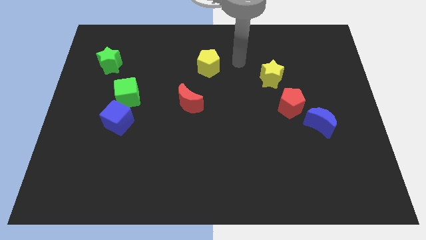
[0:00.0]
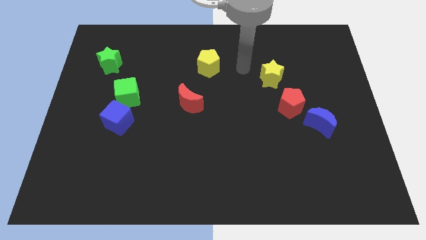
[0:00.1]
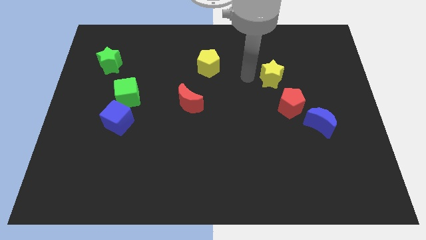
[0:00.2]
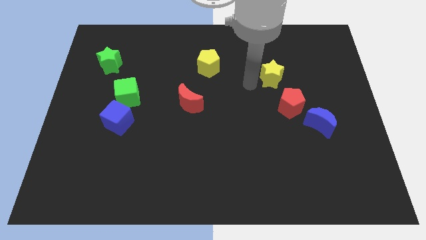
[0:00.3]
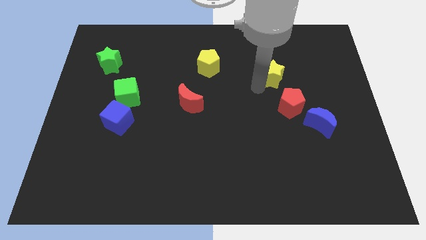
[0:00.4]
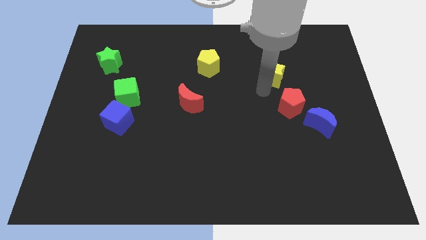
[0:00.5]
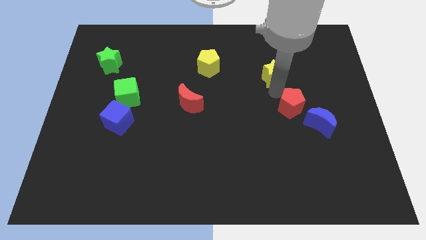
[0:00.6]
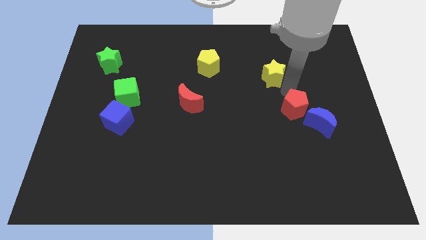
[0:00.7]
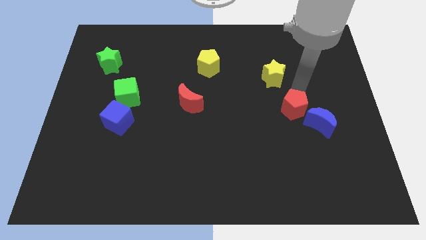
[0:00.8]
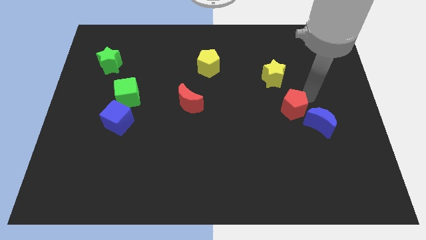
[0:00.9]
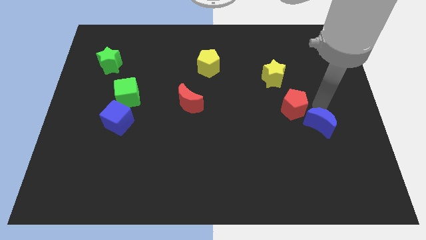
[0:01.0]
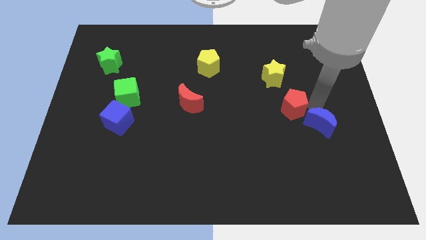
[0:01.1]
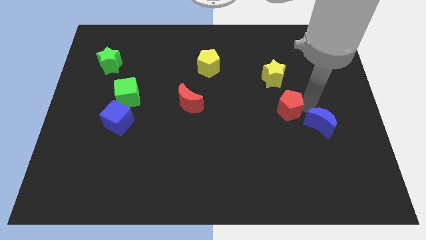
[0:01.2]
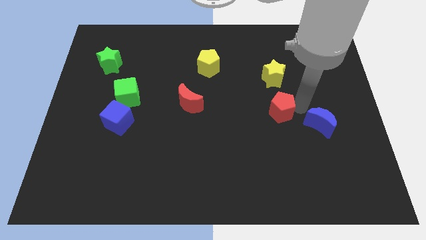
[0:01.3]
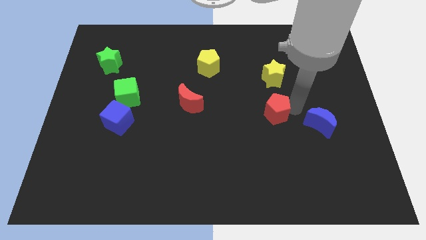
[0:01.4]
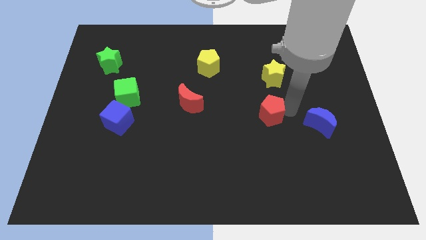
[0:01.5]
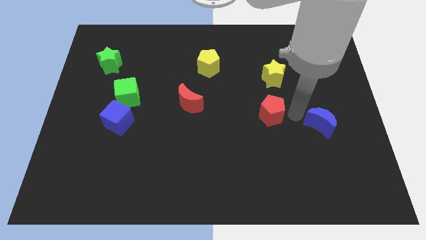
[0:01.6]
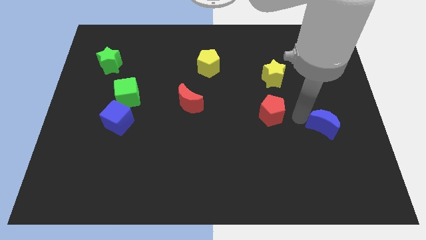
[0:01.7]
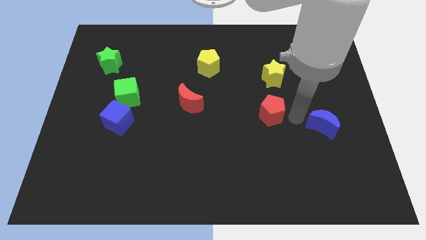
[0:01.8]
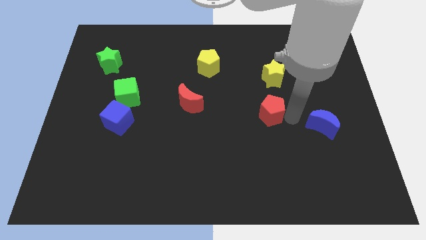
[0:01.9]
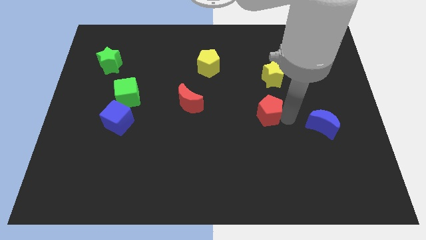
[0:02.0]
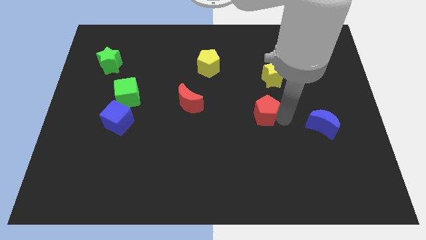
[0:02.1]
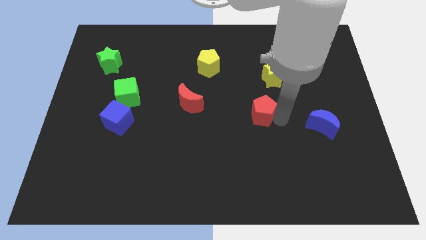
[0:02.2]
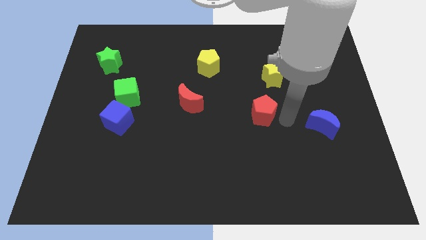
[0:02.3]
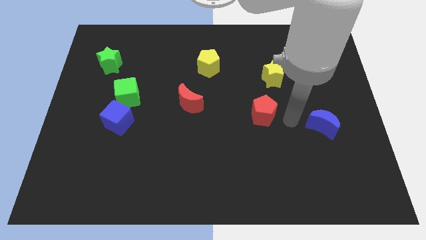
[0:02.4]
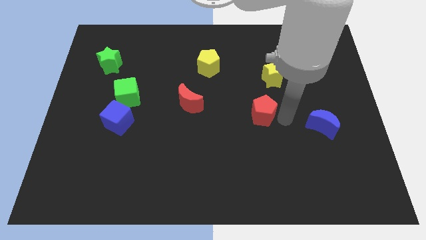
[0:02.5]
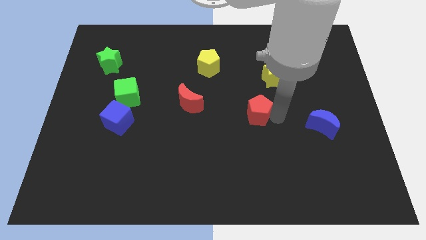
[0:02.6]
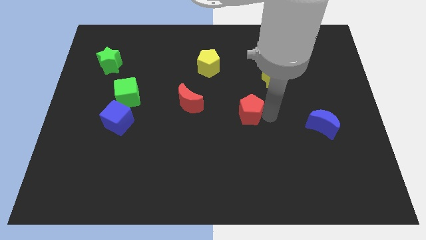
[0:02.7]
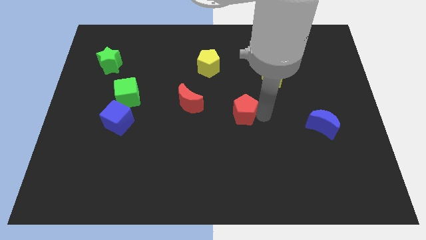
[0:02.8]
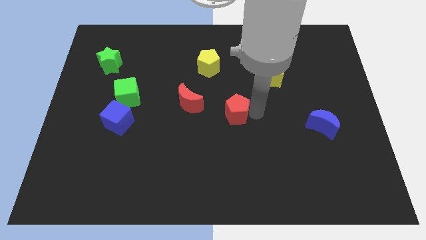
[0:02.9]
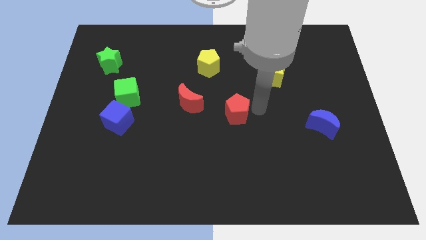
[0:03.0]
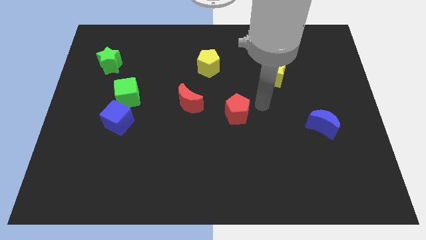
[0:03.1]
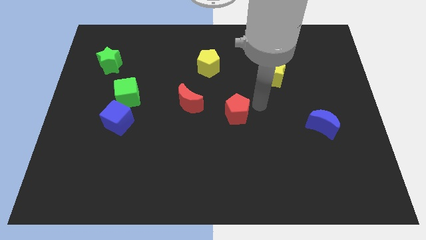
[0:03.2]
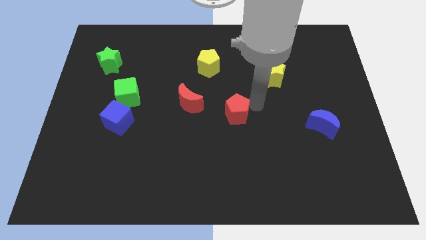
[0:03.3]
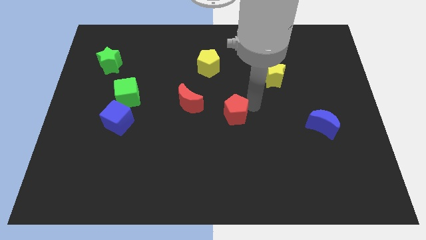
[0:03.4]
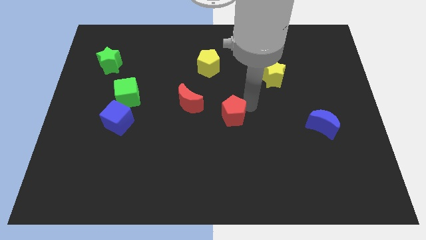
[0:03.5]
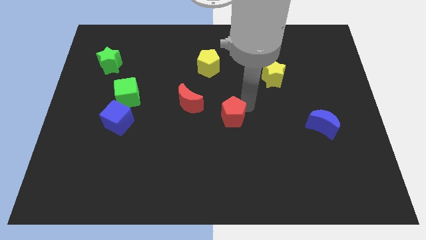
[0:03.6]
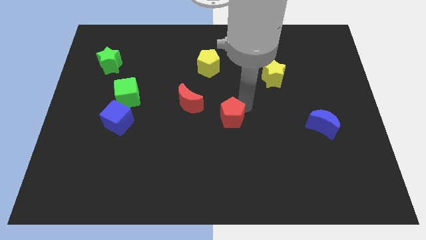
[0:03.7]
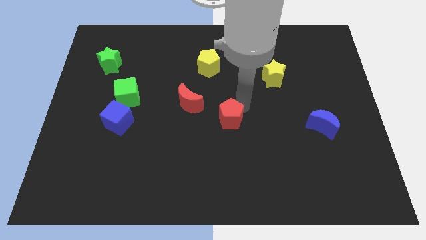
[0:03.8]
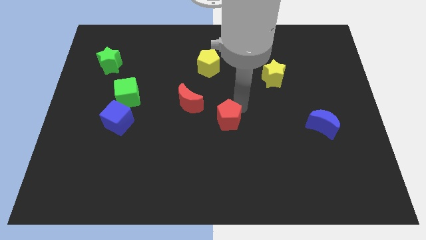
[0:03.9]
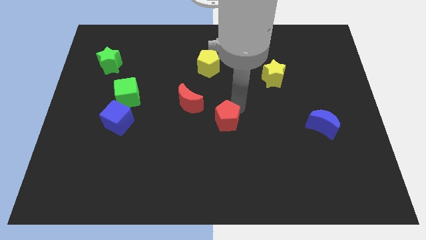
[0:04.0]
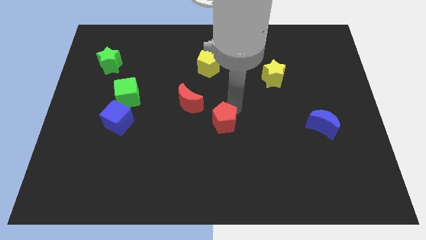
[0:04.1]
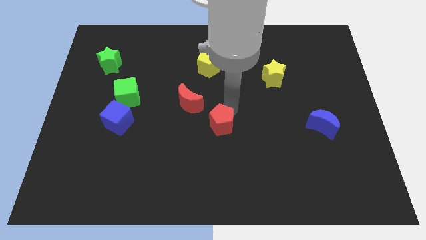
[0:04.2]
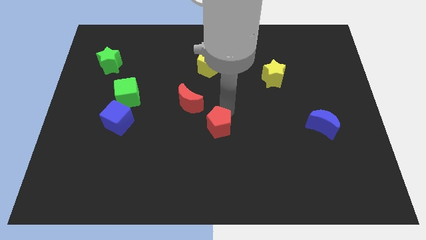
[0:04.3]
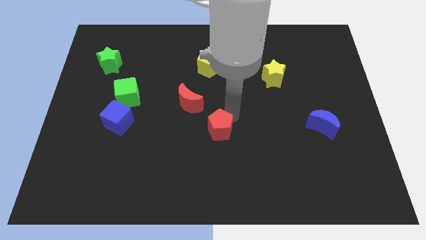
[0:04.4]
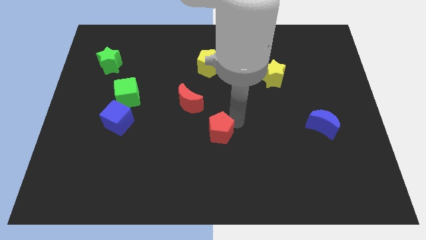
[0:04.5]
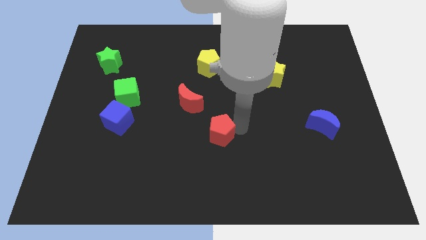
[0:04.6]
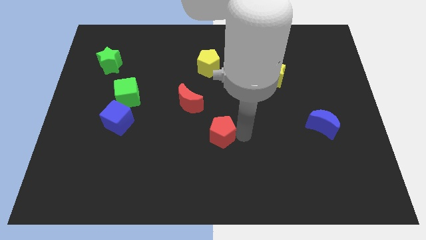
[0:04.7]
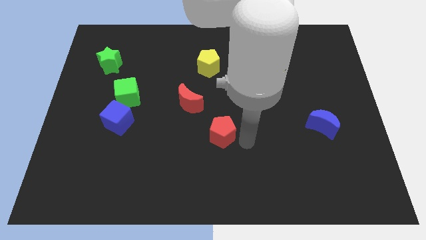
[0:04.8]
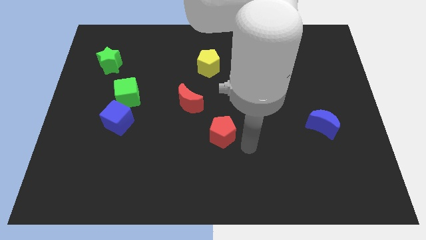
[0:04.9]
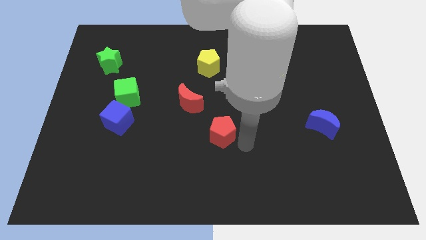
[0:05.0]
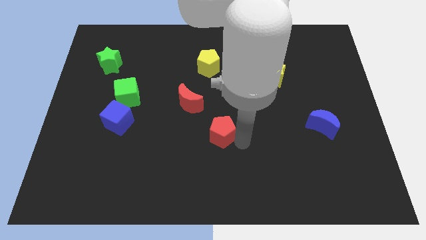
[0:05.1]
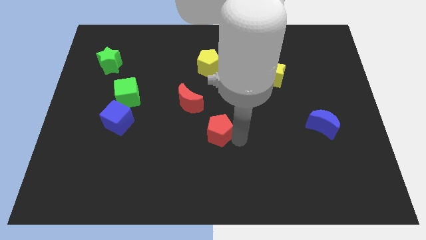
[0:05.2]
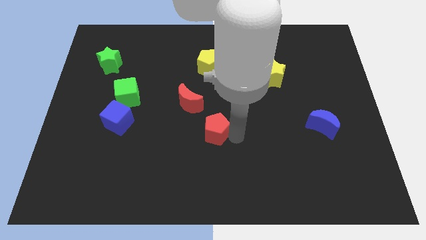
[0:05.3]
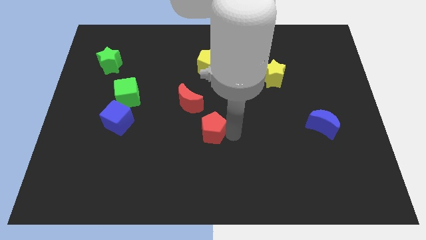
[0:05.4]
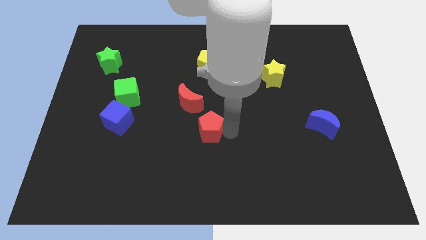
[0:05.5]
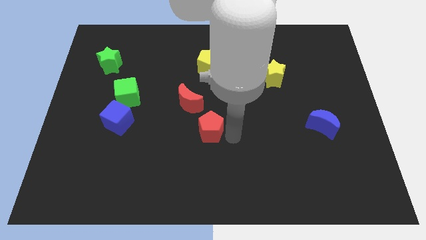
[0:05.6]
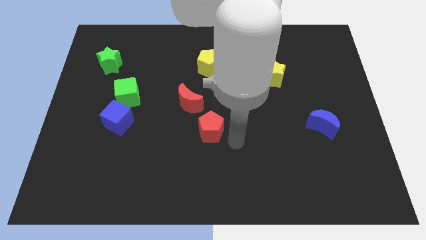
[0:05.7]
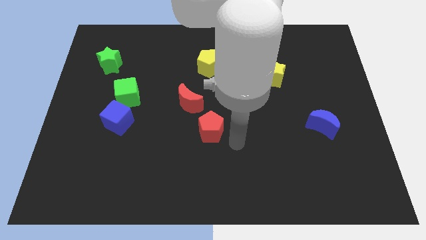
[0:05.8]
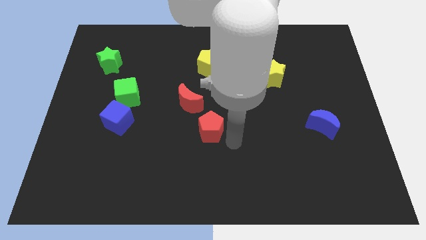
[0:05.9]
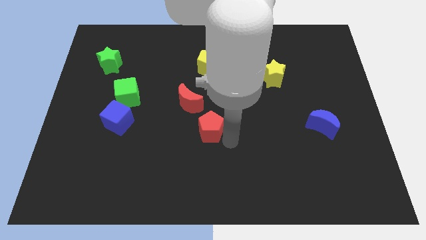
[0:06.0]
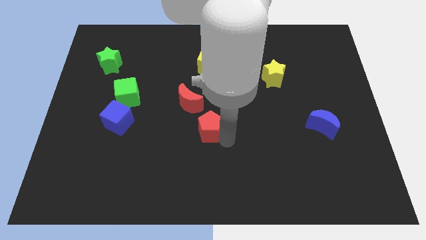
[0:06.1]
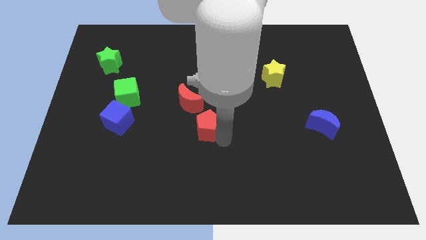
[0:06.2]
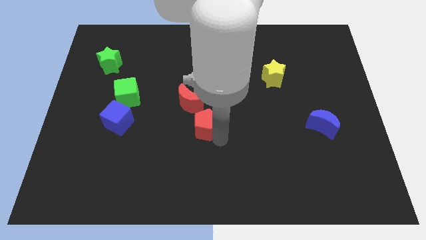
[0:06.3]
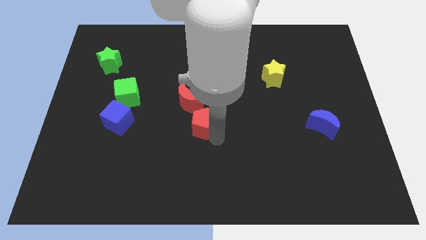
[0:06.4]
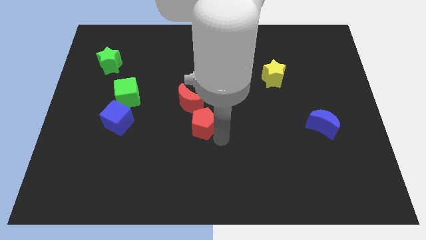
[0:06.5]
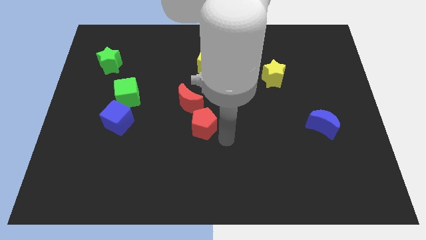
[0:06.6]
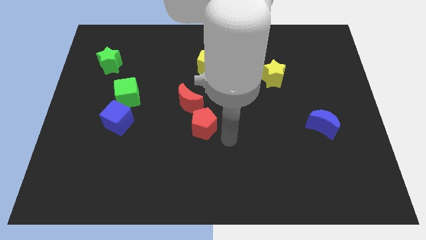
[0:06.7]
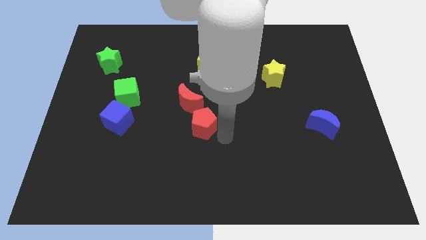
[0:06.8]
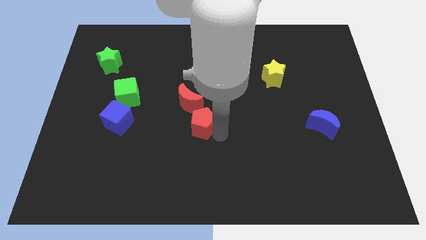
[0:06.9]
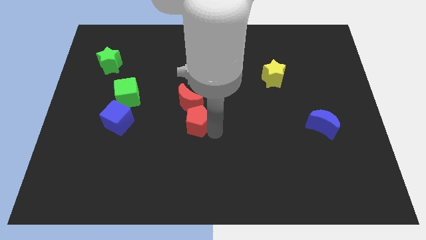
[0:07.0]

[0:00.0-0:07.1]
push the red pentagon left

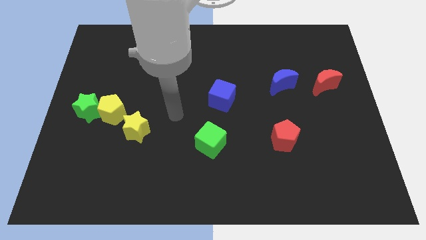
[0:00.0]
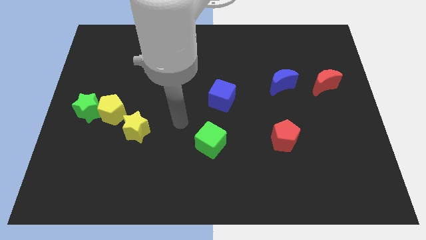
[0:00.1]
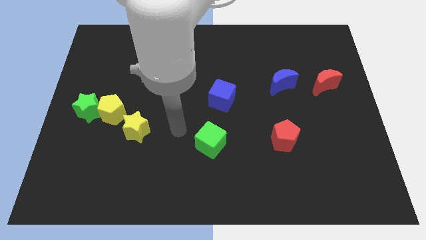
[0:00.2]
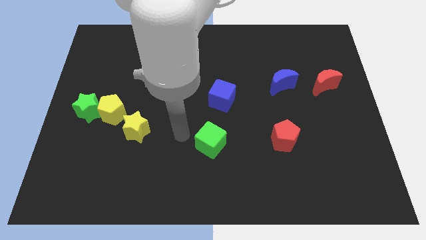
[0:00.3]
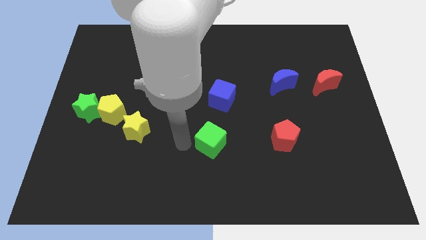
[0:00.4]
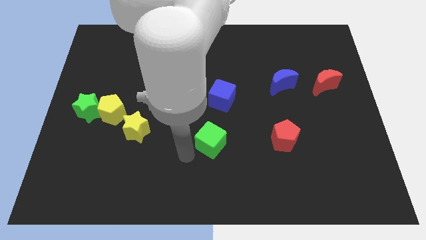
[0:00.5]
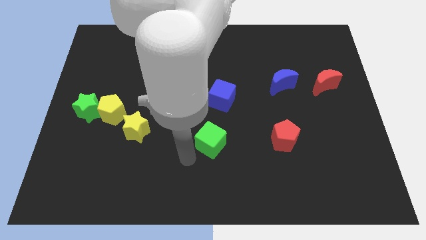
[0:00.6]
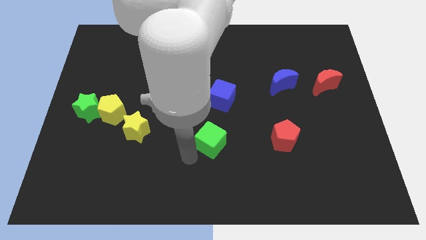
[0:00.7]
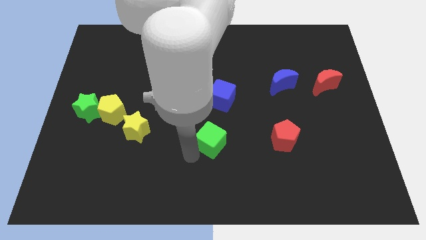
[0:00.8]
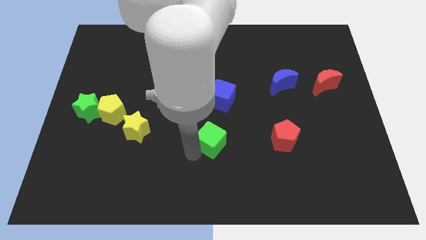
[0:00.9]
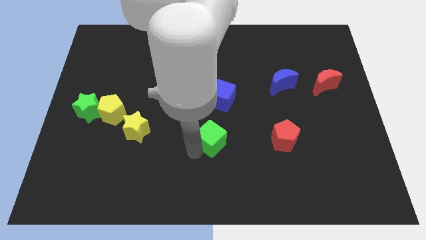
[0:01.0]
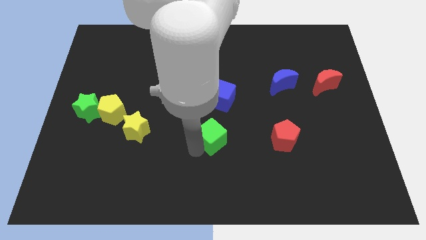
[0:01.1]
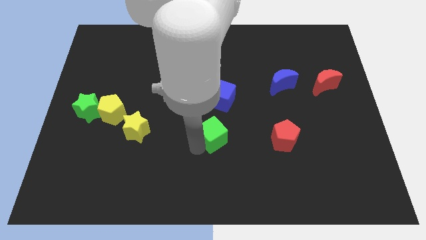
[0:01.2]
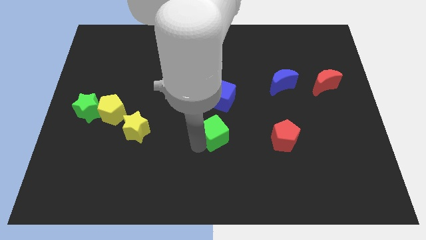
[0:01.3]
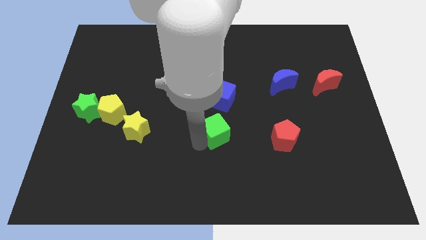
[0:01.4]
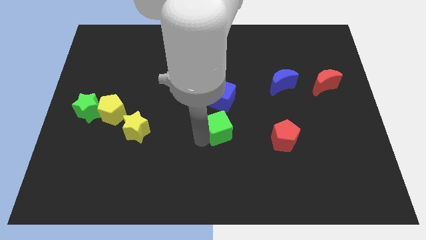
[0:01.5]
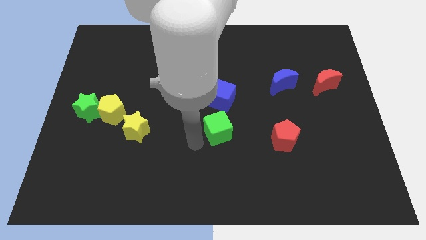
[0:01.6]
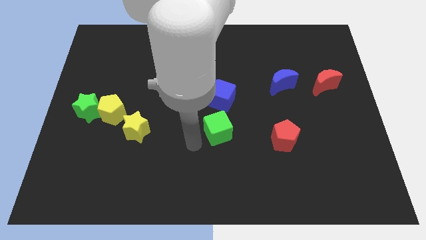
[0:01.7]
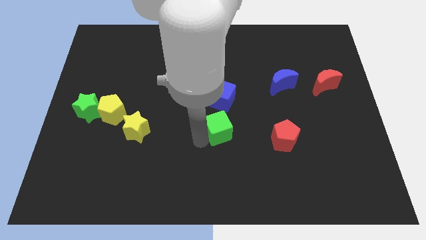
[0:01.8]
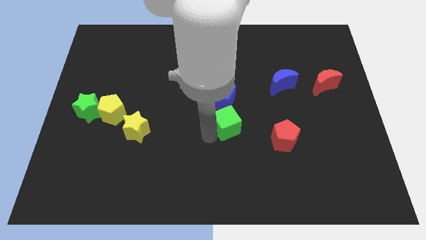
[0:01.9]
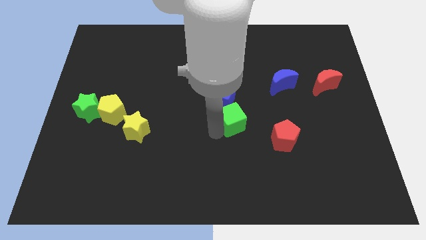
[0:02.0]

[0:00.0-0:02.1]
slightly slide the green cube diagonally upwards and to the right
